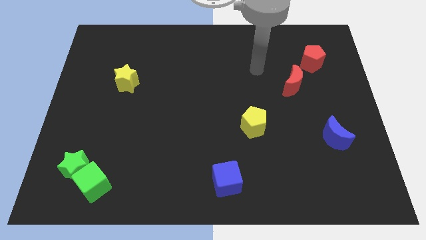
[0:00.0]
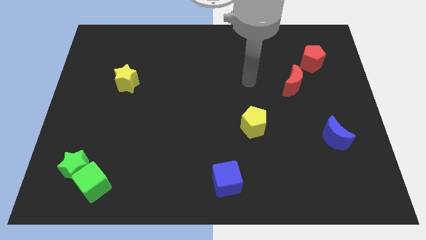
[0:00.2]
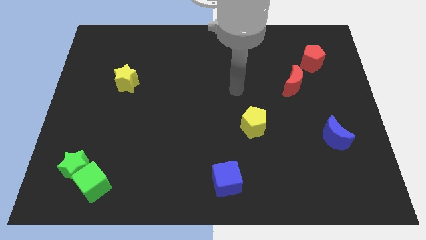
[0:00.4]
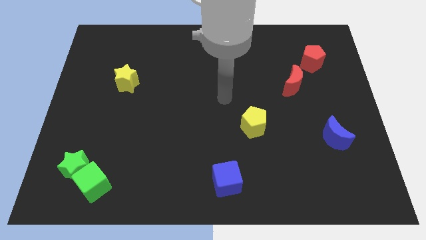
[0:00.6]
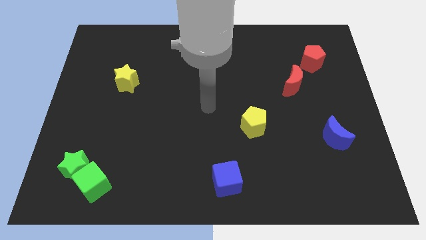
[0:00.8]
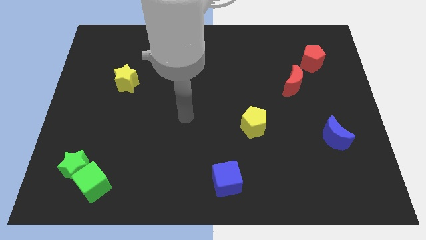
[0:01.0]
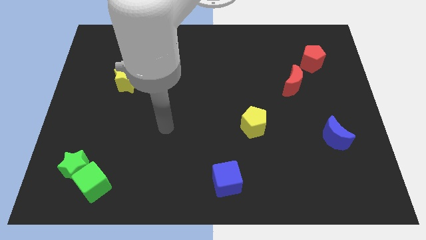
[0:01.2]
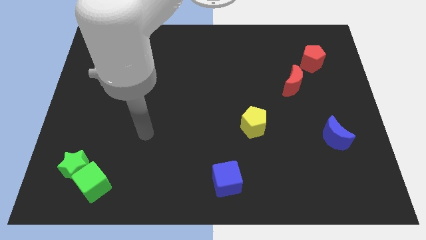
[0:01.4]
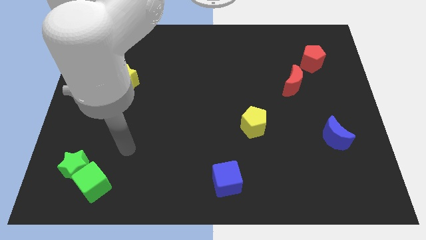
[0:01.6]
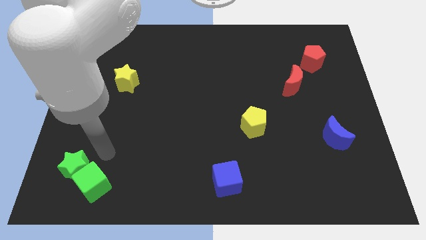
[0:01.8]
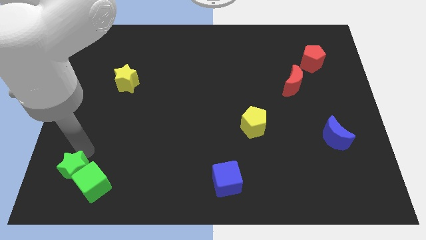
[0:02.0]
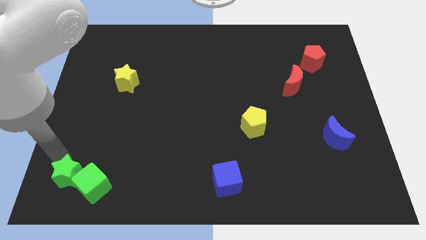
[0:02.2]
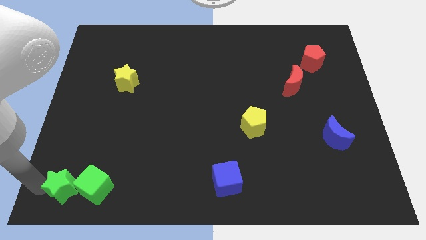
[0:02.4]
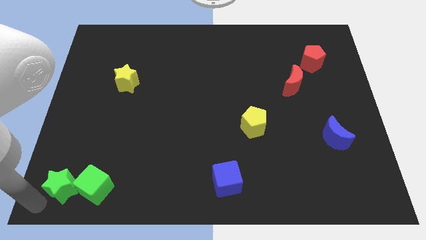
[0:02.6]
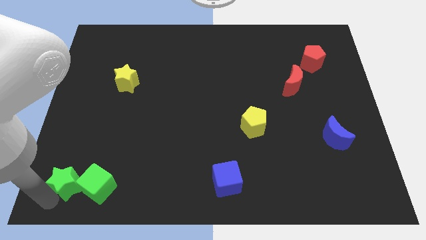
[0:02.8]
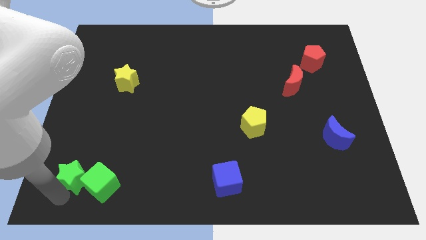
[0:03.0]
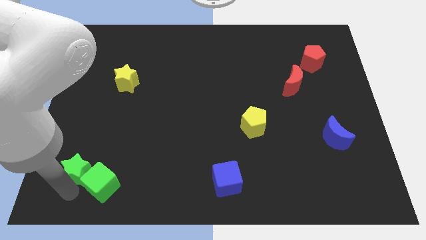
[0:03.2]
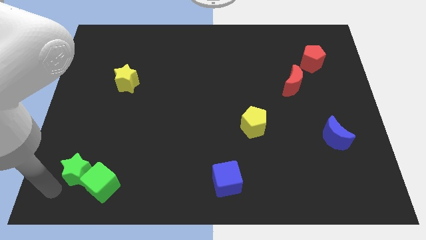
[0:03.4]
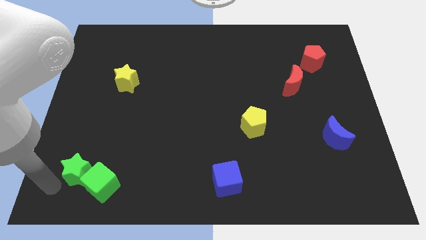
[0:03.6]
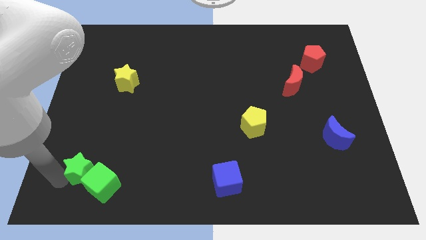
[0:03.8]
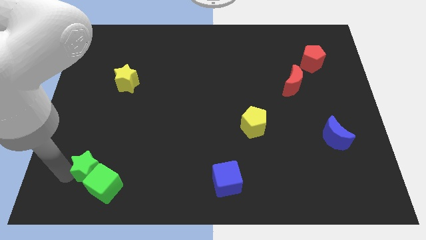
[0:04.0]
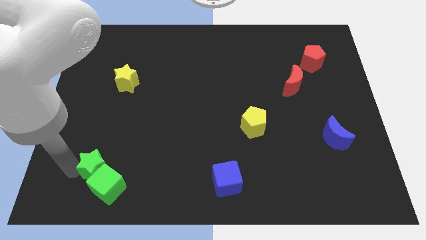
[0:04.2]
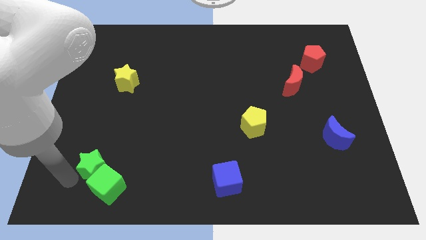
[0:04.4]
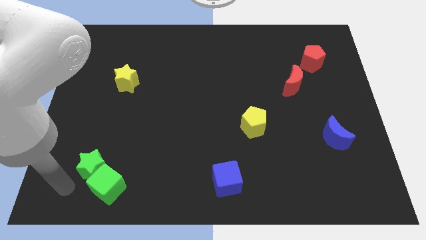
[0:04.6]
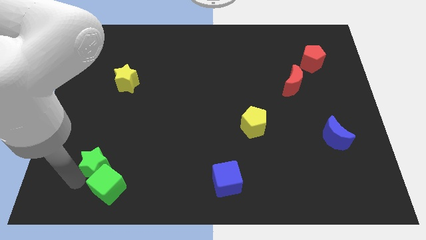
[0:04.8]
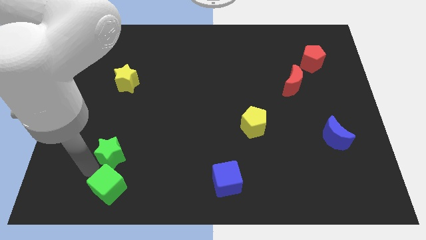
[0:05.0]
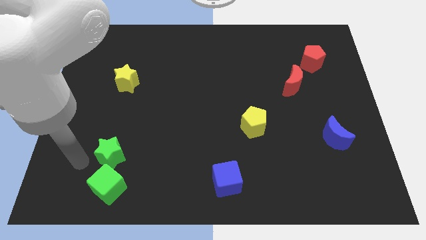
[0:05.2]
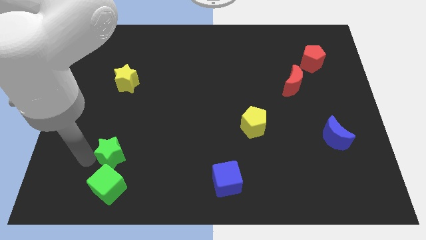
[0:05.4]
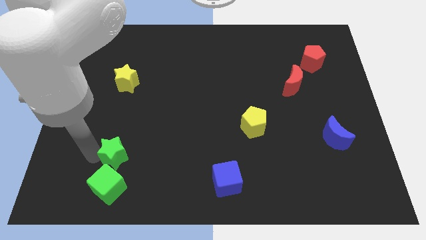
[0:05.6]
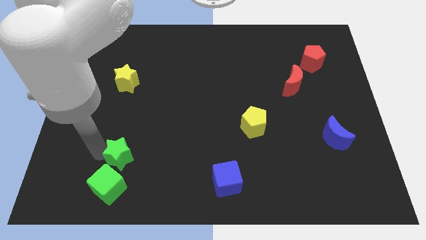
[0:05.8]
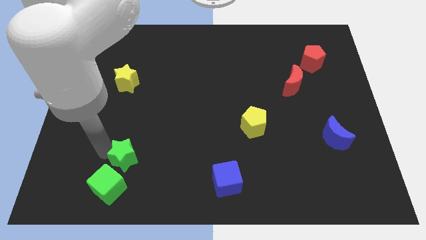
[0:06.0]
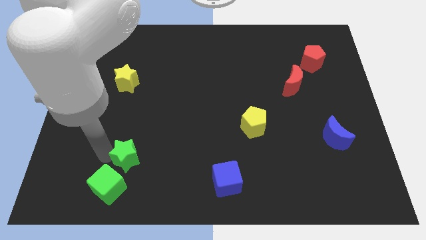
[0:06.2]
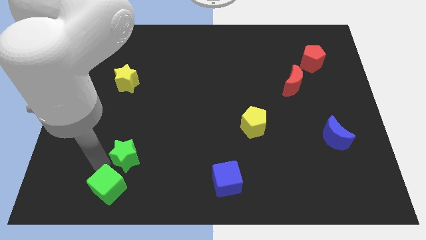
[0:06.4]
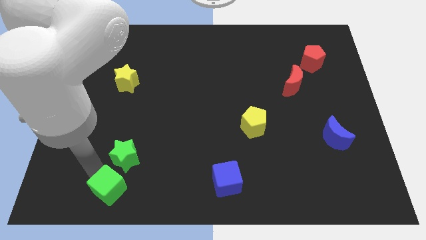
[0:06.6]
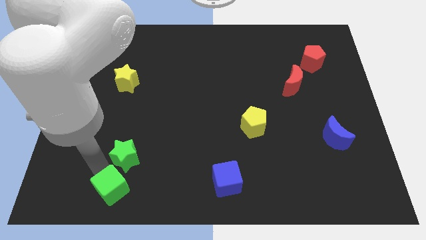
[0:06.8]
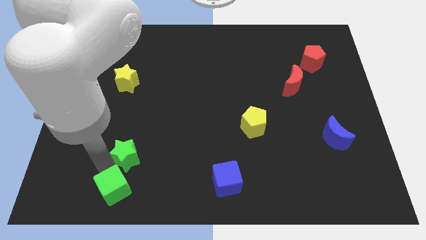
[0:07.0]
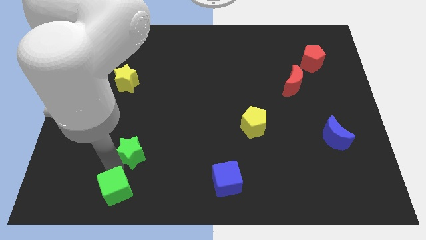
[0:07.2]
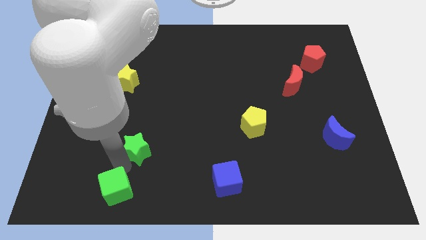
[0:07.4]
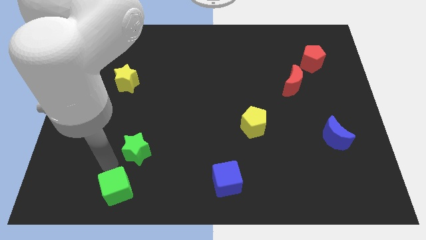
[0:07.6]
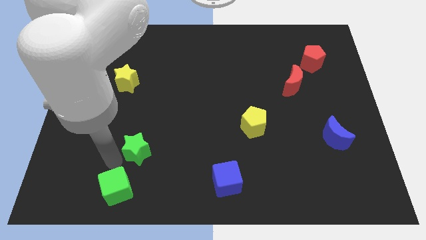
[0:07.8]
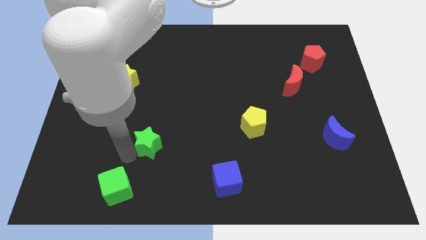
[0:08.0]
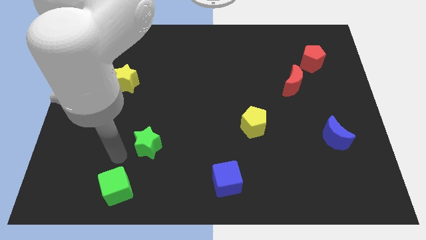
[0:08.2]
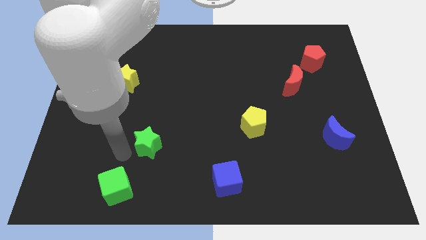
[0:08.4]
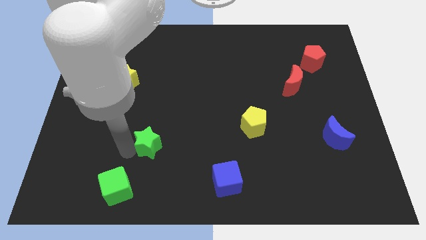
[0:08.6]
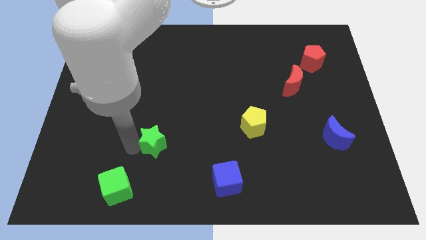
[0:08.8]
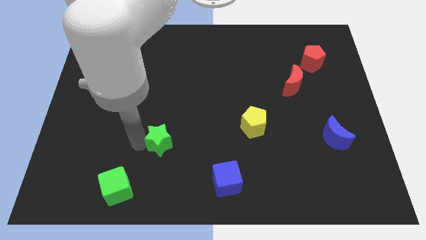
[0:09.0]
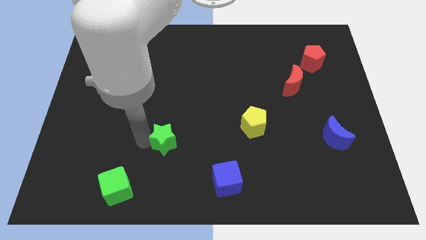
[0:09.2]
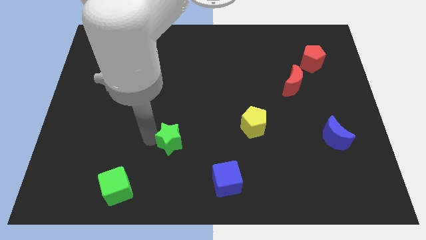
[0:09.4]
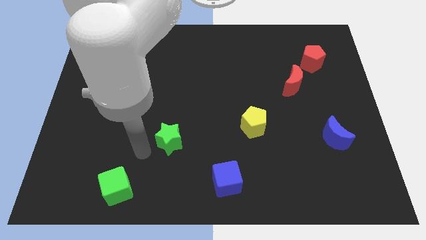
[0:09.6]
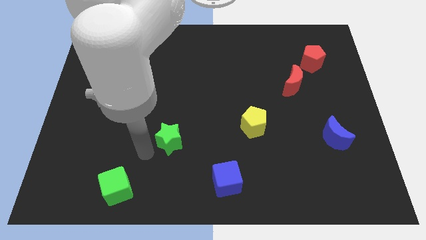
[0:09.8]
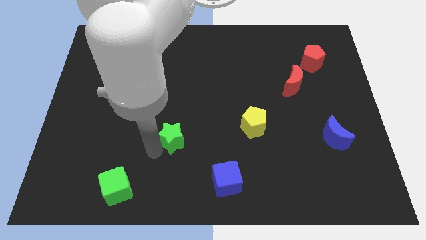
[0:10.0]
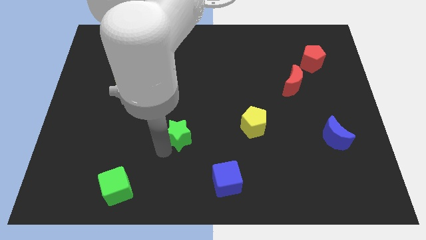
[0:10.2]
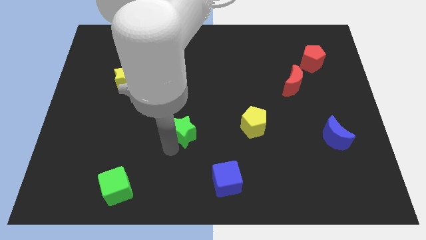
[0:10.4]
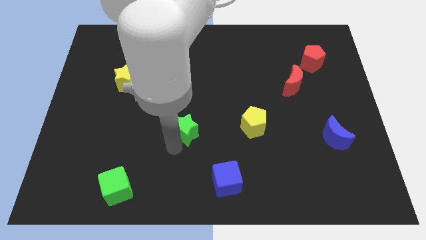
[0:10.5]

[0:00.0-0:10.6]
put the green star just left of the yellow pentagon

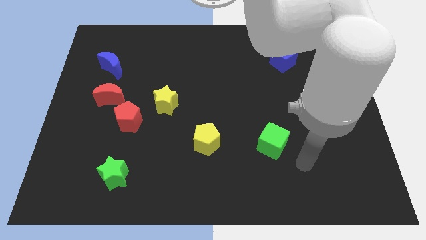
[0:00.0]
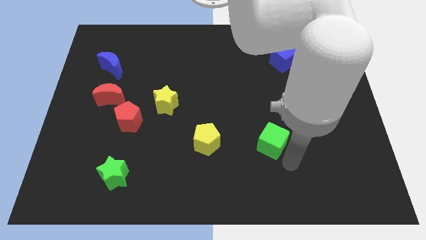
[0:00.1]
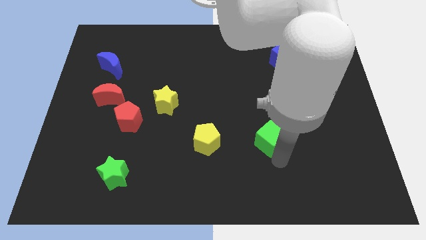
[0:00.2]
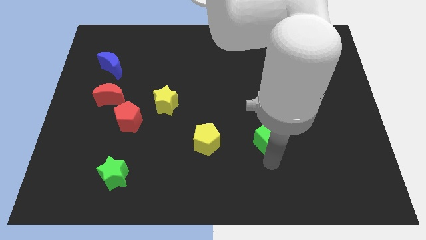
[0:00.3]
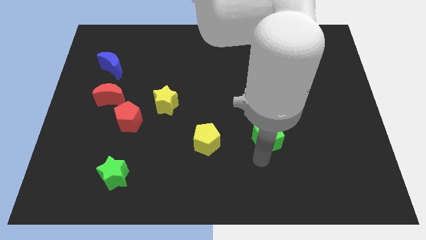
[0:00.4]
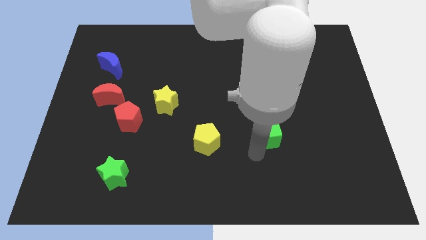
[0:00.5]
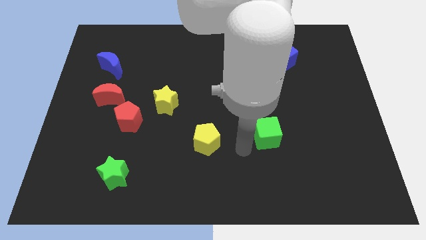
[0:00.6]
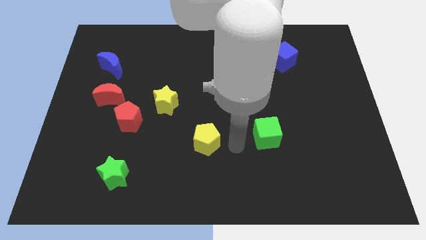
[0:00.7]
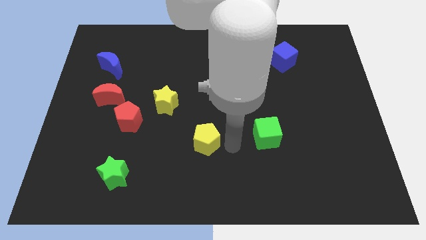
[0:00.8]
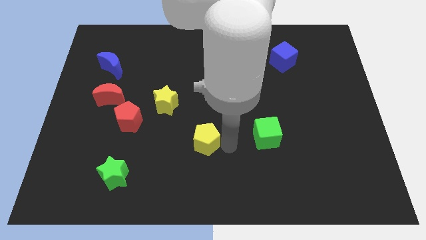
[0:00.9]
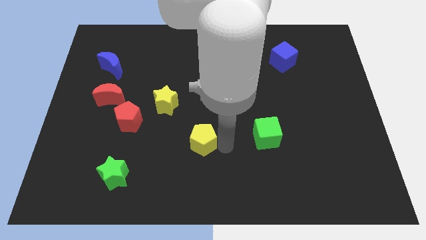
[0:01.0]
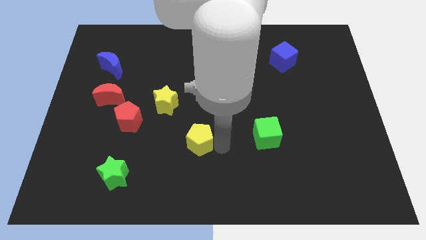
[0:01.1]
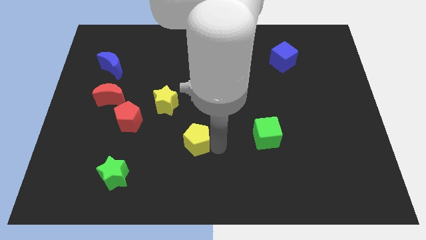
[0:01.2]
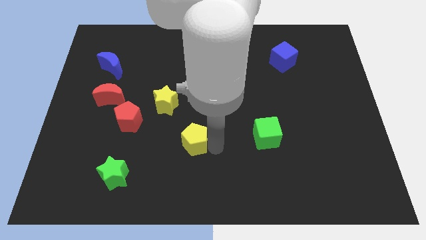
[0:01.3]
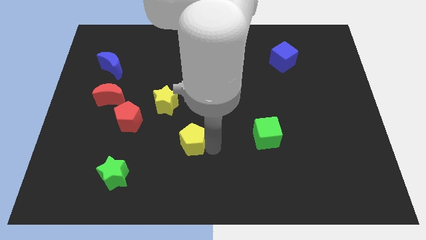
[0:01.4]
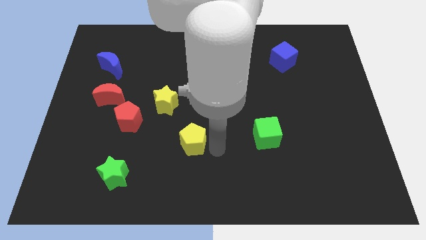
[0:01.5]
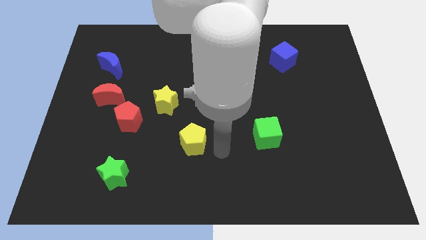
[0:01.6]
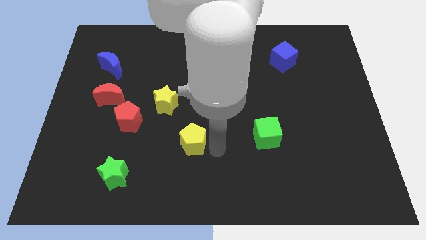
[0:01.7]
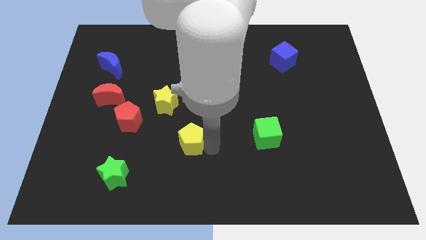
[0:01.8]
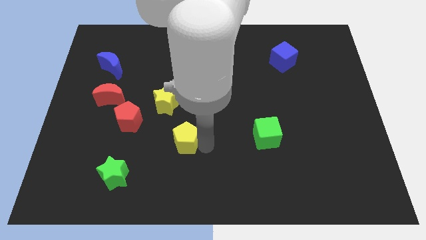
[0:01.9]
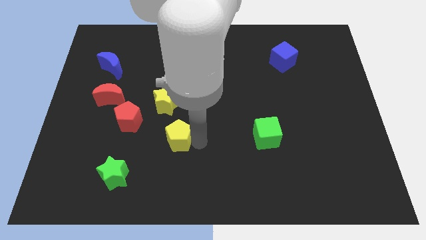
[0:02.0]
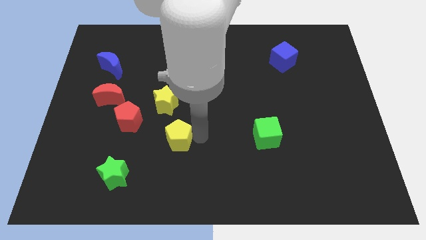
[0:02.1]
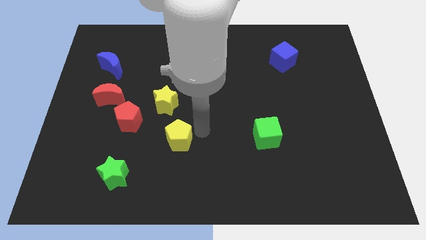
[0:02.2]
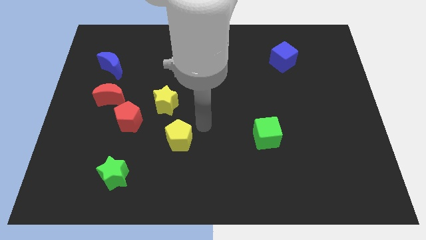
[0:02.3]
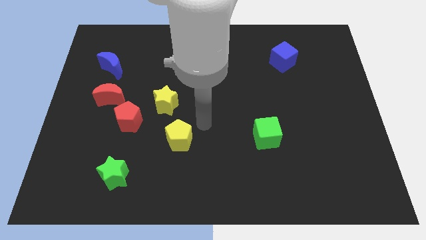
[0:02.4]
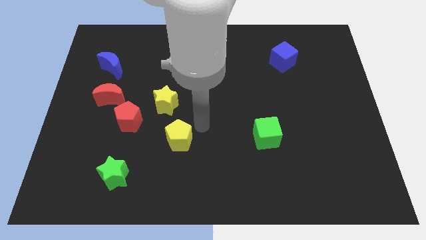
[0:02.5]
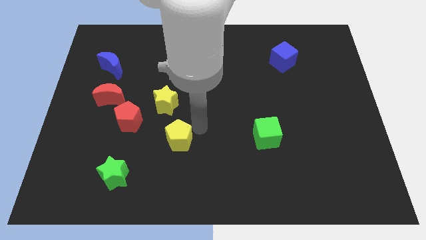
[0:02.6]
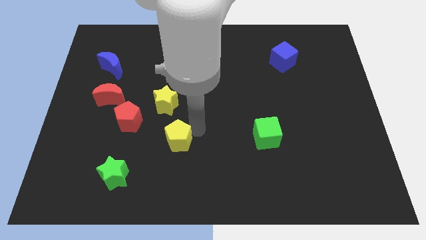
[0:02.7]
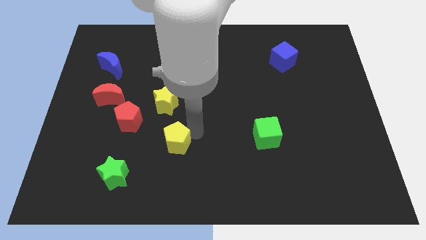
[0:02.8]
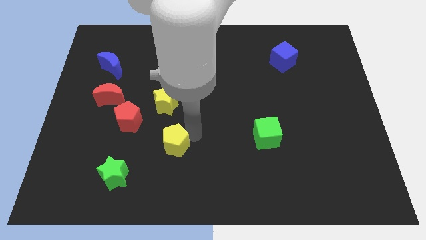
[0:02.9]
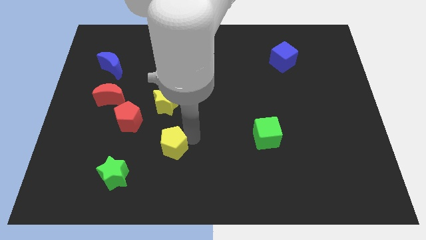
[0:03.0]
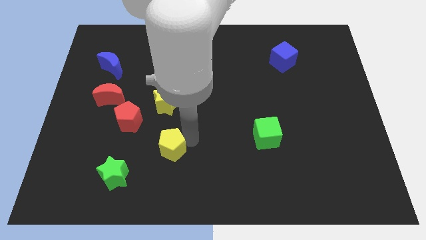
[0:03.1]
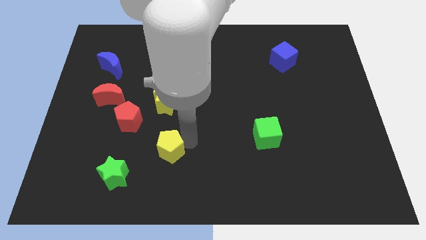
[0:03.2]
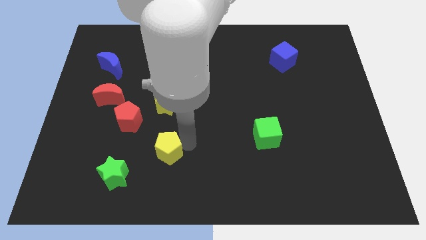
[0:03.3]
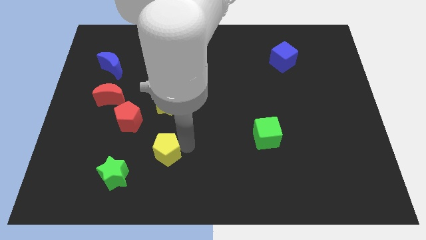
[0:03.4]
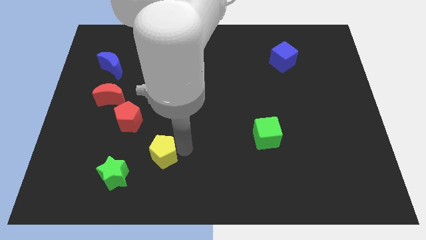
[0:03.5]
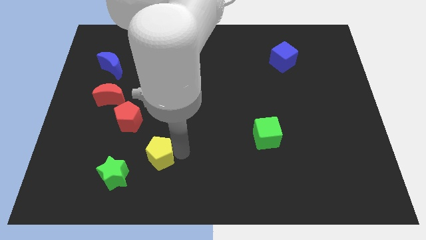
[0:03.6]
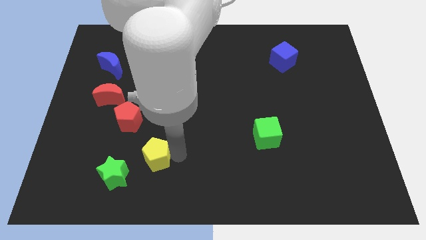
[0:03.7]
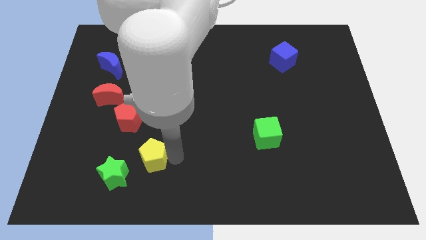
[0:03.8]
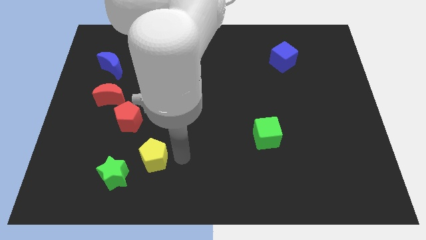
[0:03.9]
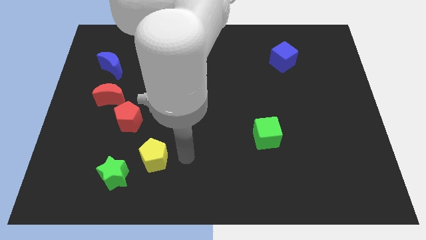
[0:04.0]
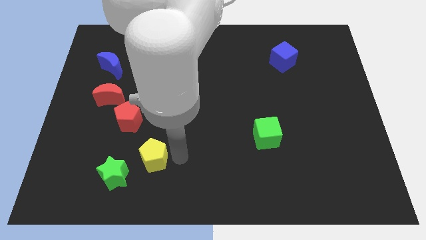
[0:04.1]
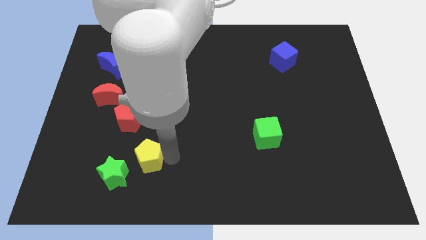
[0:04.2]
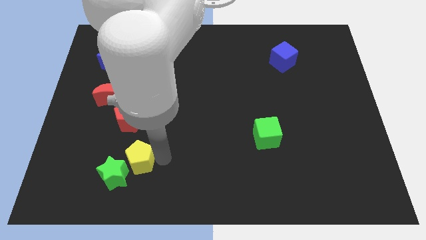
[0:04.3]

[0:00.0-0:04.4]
put the yellow pentagon to the bottom side of the red pentagon
